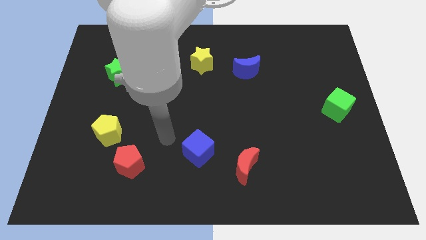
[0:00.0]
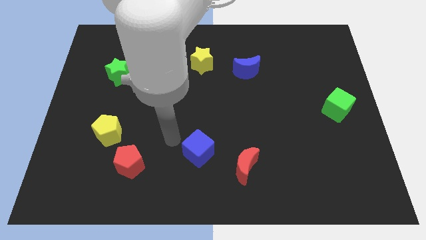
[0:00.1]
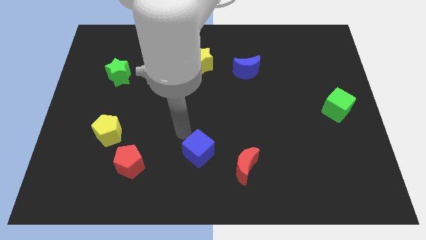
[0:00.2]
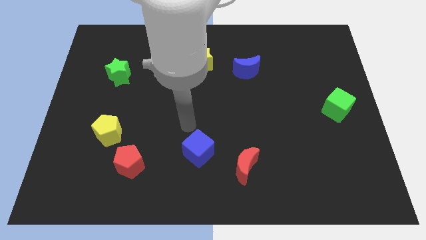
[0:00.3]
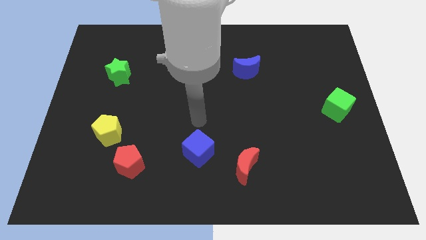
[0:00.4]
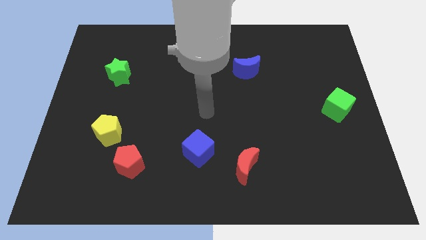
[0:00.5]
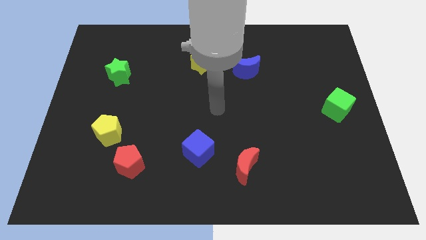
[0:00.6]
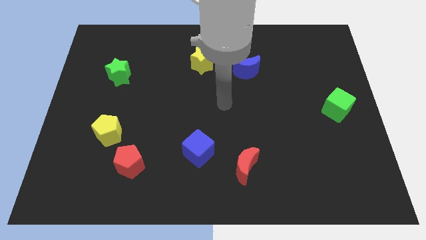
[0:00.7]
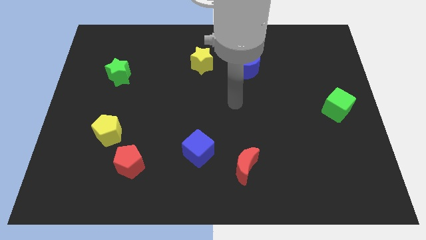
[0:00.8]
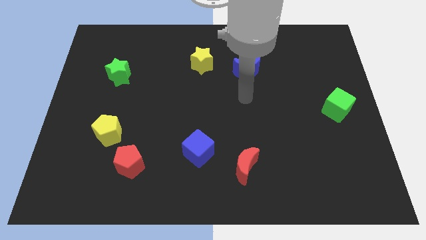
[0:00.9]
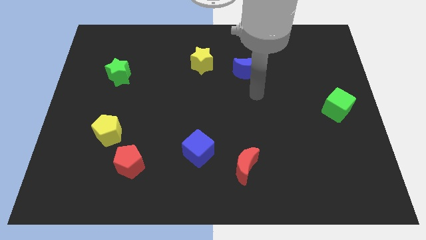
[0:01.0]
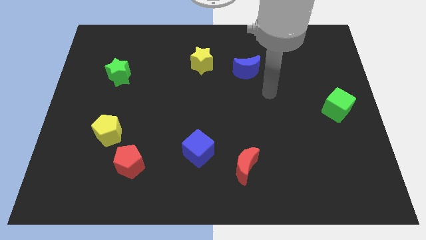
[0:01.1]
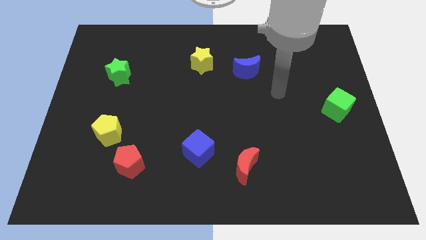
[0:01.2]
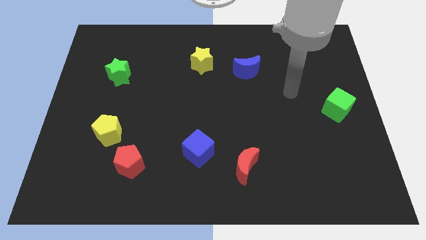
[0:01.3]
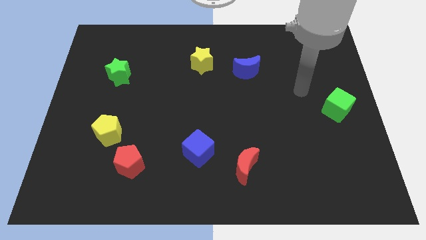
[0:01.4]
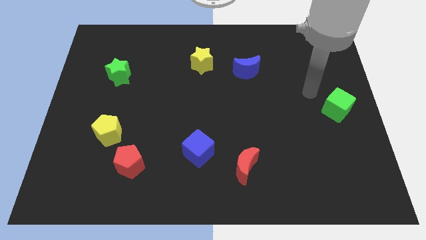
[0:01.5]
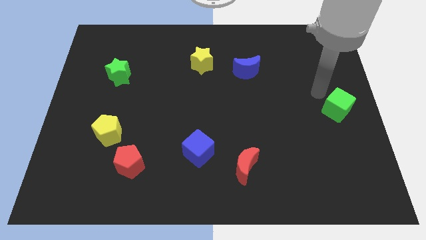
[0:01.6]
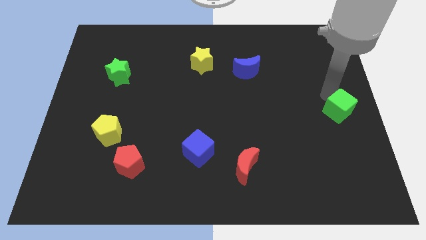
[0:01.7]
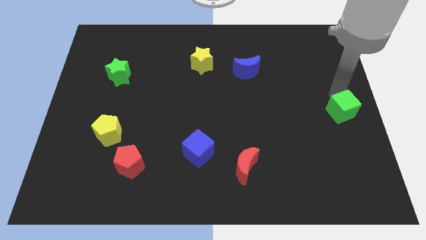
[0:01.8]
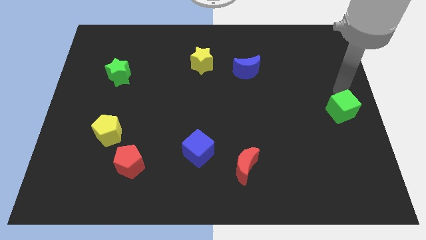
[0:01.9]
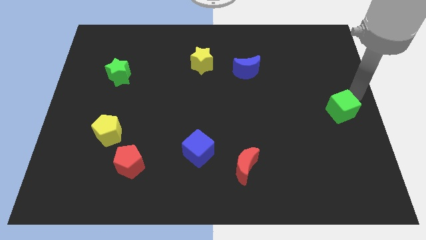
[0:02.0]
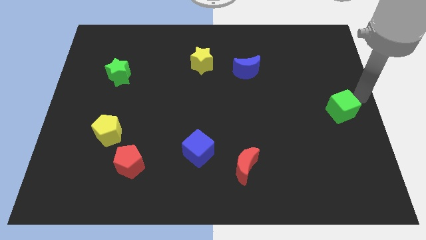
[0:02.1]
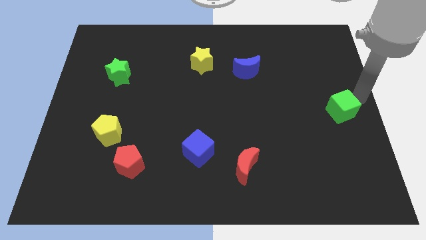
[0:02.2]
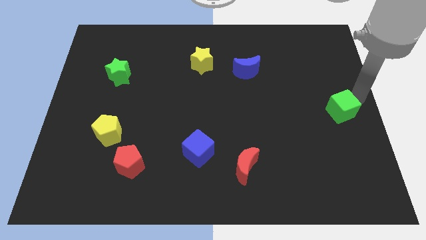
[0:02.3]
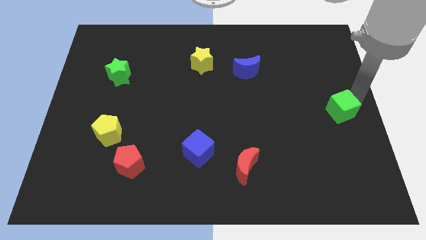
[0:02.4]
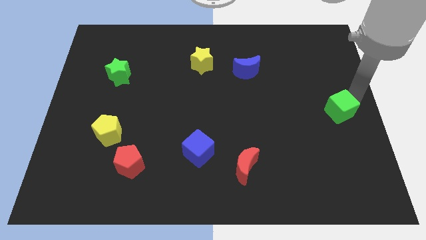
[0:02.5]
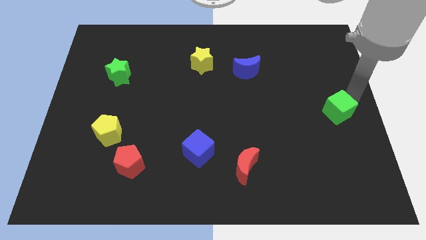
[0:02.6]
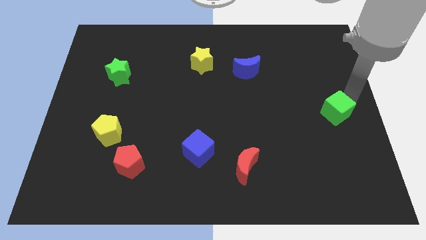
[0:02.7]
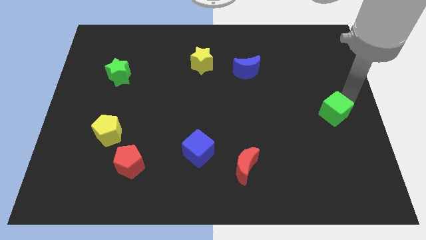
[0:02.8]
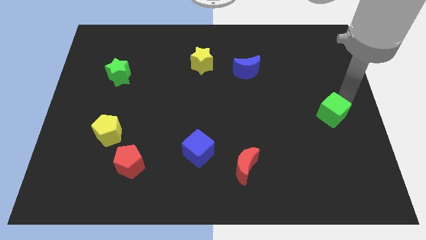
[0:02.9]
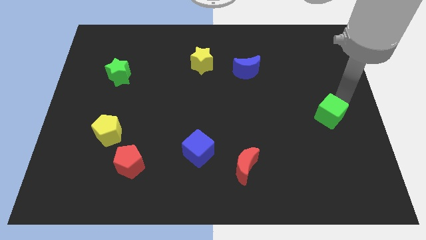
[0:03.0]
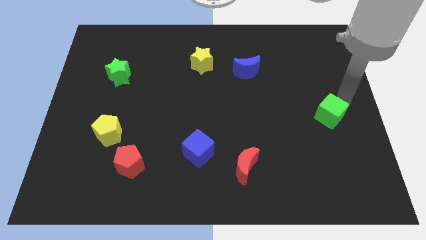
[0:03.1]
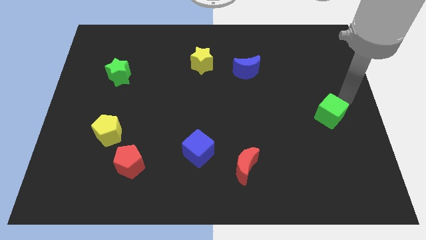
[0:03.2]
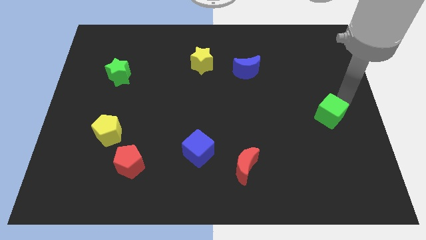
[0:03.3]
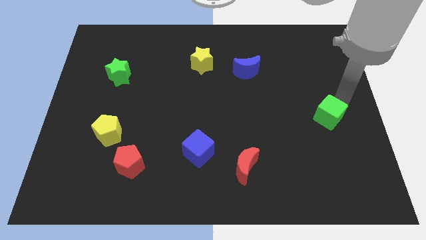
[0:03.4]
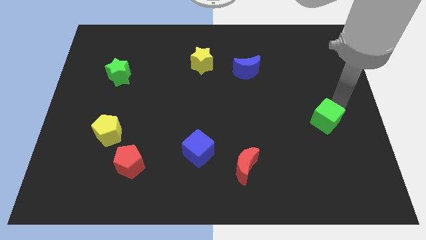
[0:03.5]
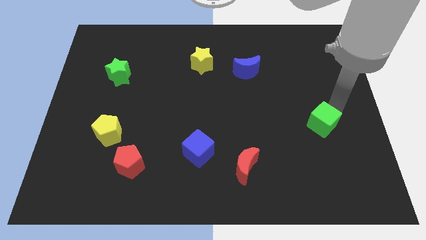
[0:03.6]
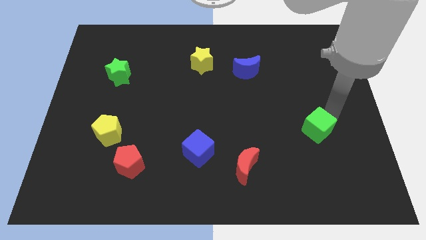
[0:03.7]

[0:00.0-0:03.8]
slightly push the green cube diagonally downwards and to the left

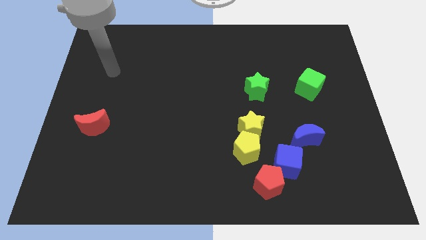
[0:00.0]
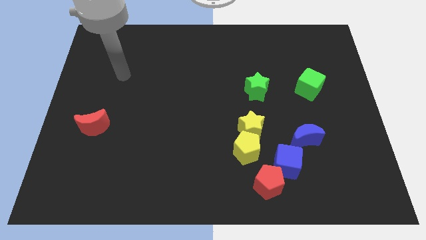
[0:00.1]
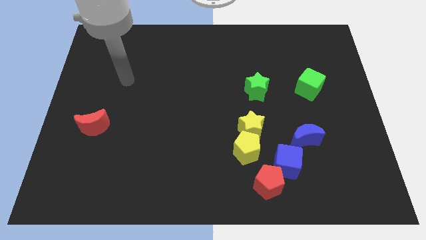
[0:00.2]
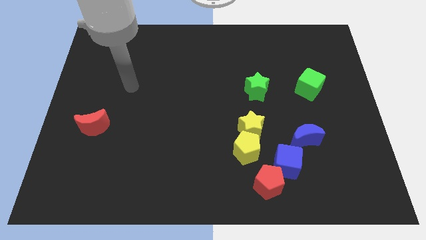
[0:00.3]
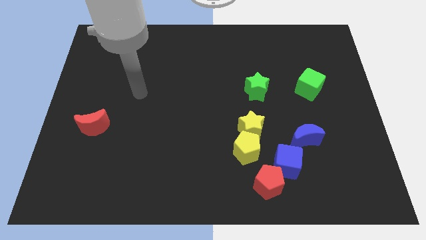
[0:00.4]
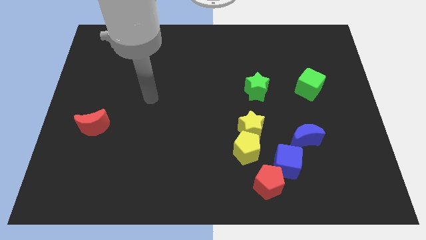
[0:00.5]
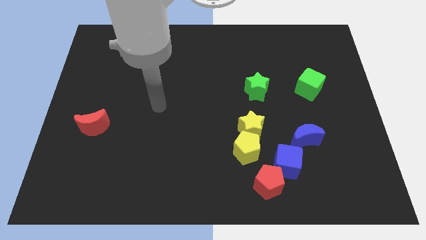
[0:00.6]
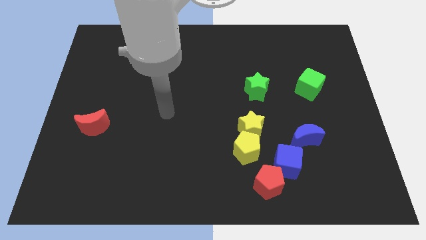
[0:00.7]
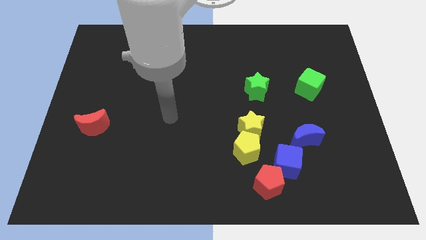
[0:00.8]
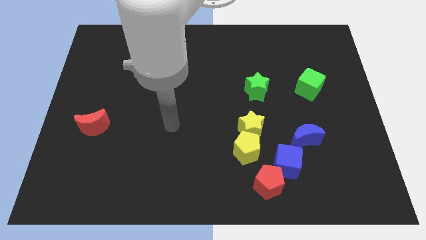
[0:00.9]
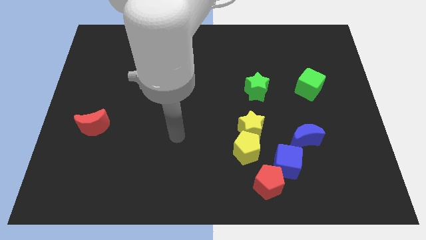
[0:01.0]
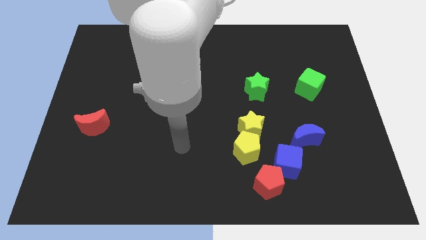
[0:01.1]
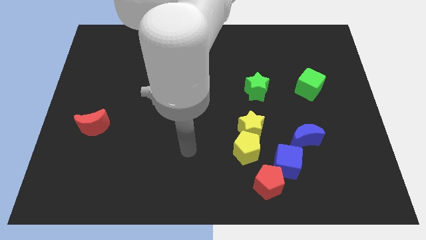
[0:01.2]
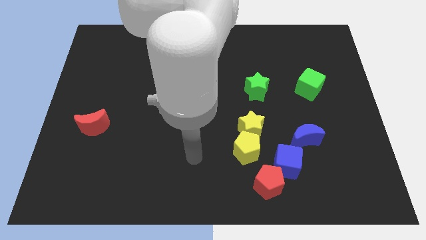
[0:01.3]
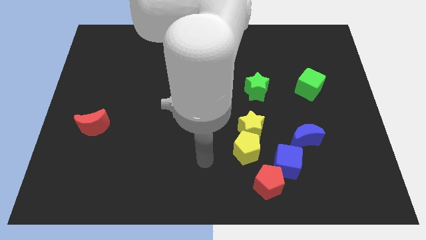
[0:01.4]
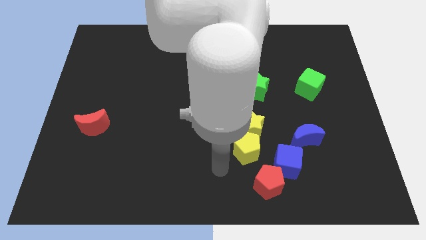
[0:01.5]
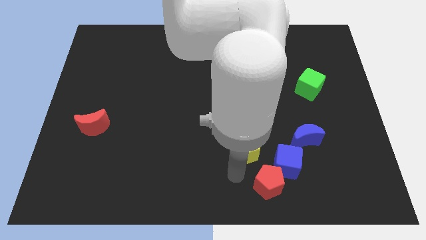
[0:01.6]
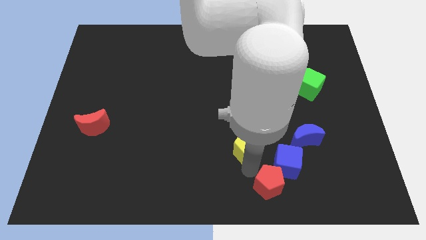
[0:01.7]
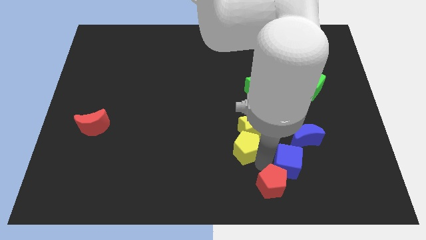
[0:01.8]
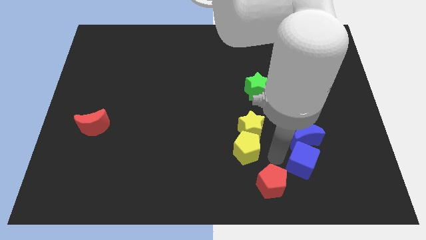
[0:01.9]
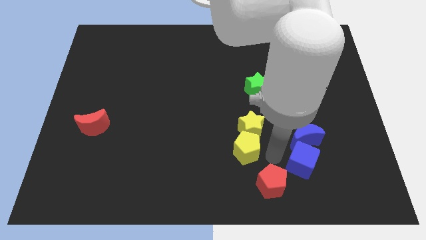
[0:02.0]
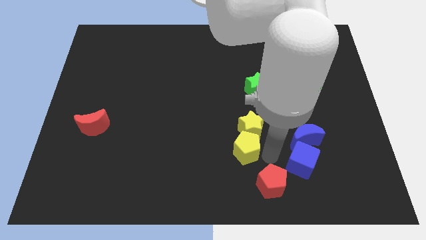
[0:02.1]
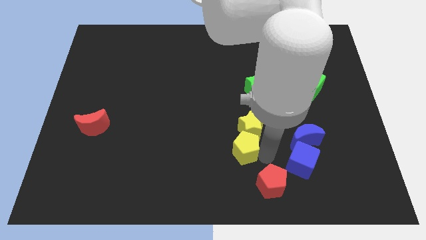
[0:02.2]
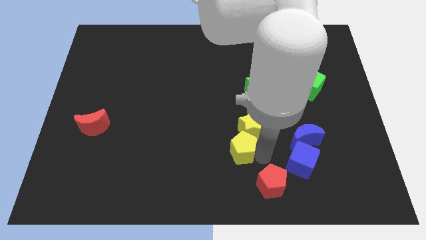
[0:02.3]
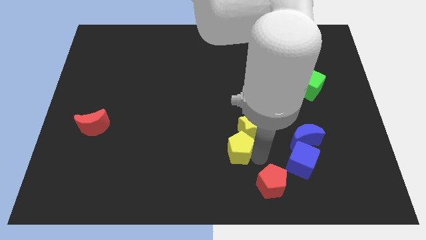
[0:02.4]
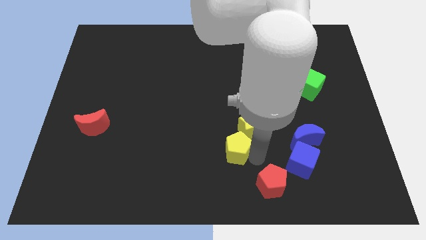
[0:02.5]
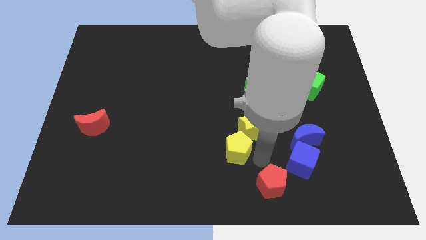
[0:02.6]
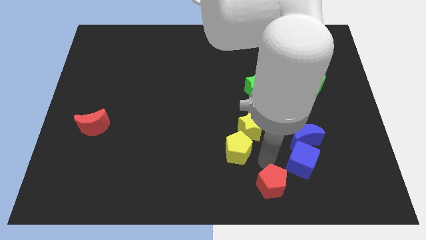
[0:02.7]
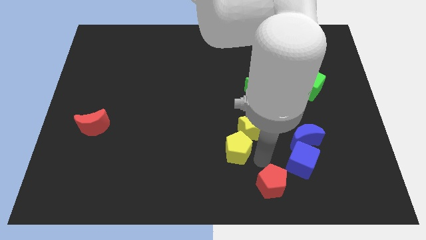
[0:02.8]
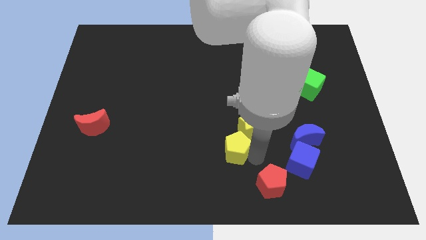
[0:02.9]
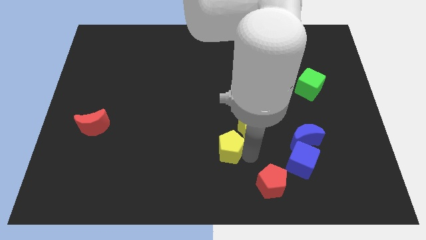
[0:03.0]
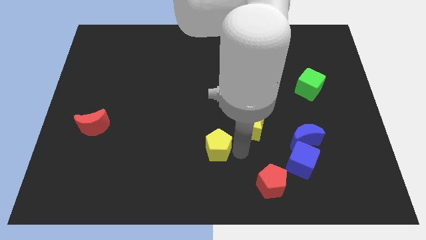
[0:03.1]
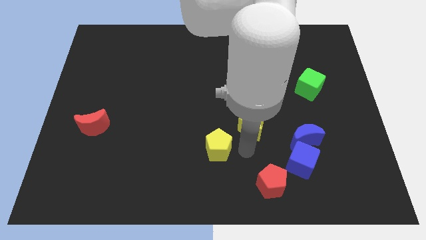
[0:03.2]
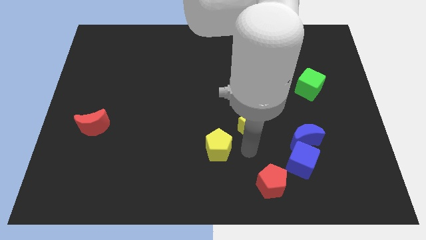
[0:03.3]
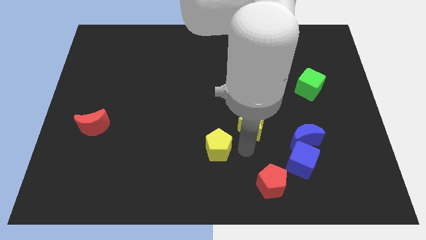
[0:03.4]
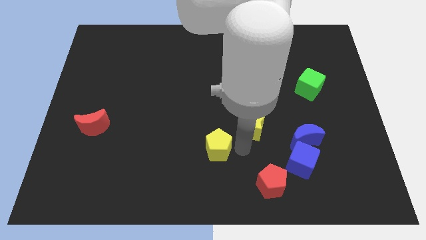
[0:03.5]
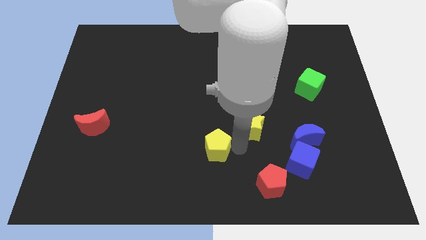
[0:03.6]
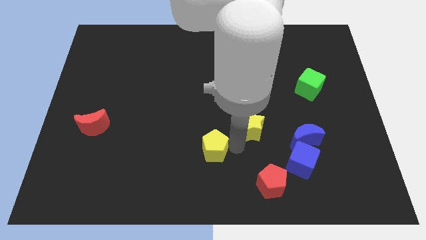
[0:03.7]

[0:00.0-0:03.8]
slightly move the yellow pentagon left

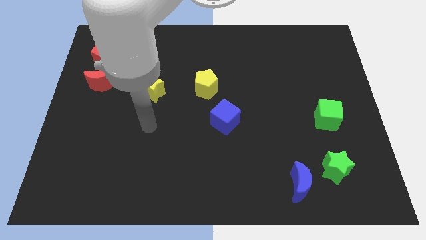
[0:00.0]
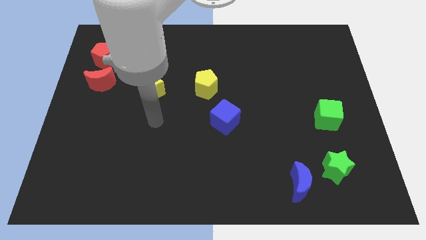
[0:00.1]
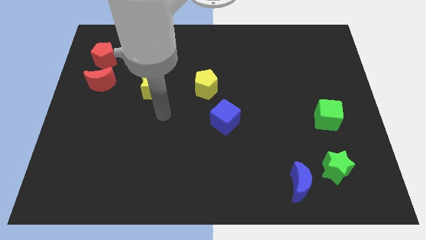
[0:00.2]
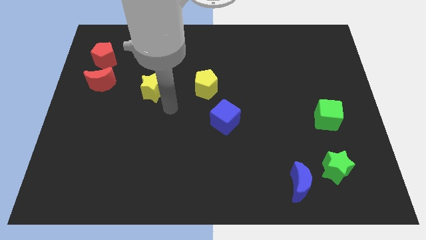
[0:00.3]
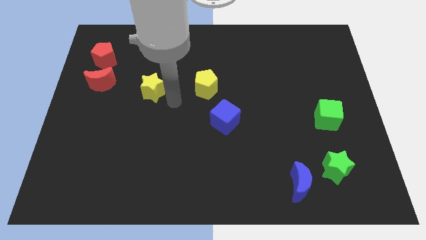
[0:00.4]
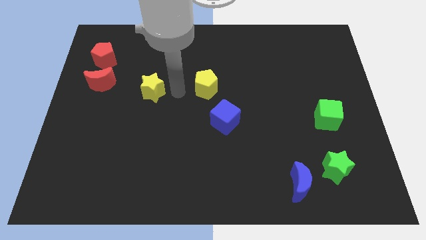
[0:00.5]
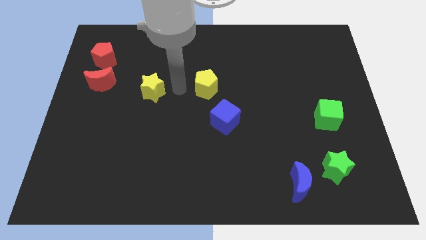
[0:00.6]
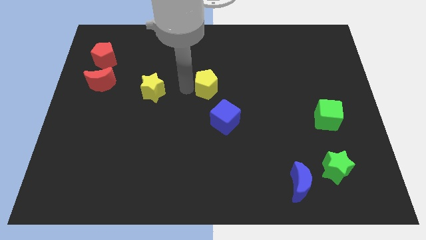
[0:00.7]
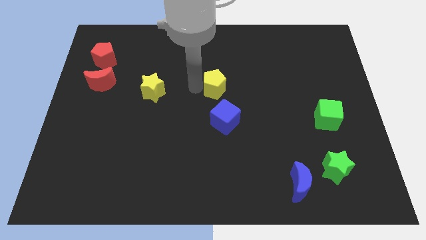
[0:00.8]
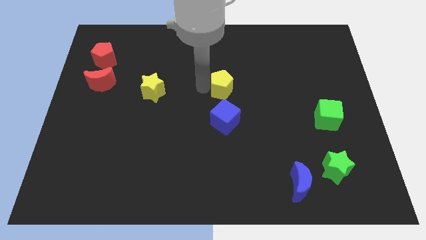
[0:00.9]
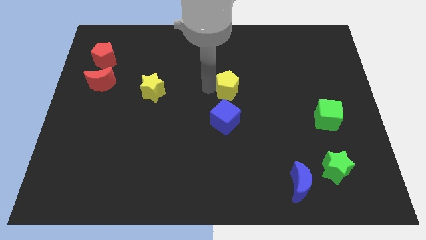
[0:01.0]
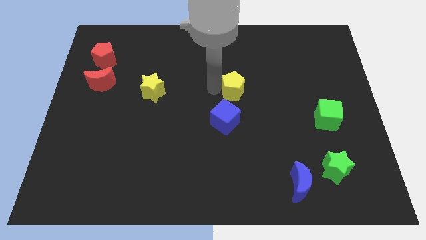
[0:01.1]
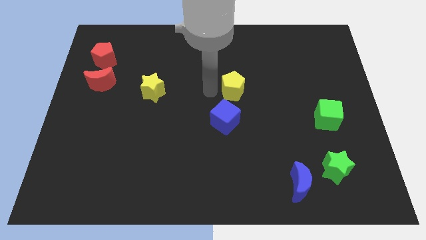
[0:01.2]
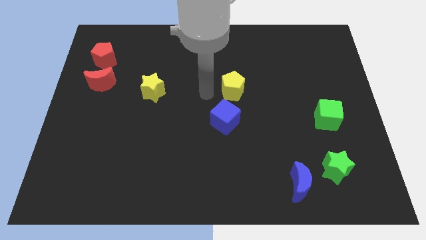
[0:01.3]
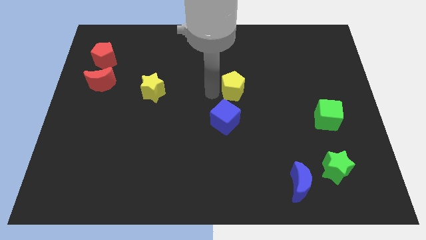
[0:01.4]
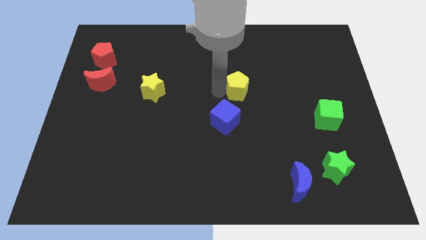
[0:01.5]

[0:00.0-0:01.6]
move the yellow pentagon to the right slightly
